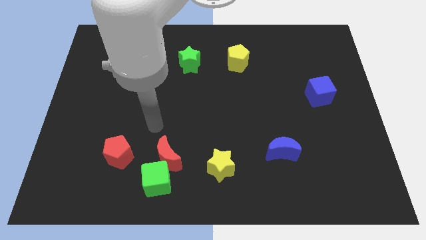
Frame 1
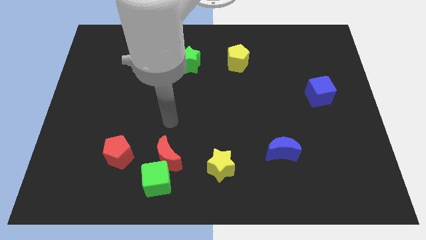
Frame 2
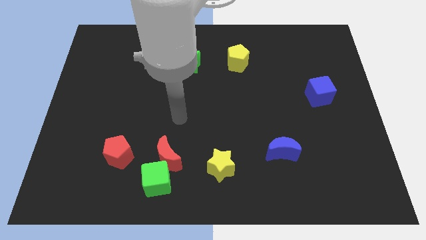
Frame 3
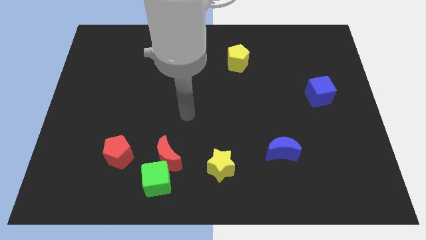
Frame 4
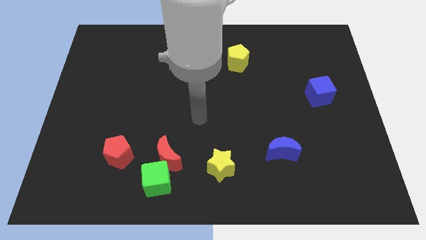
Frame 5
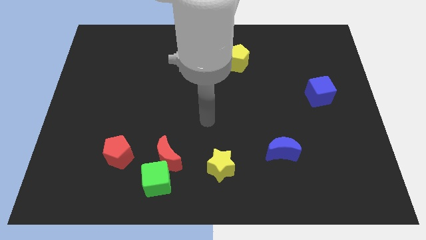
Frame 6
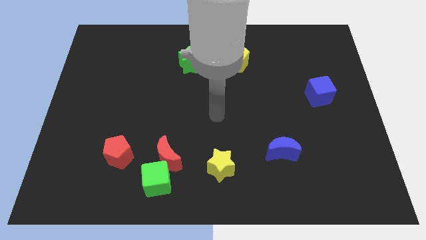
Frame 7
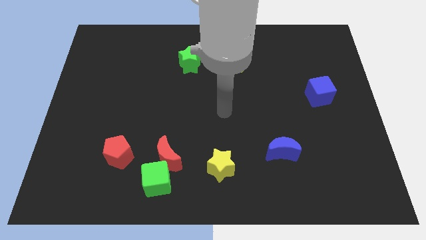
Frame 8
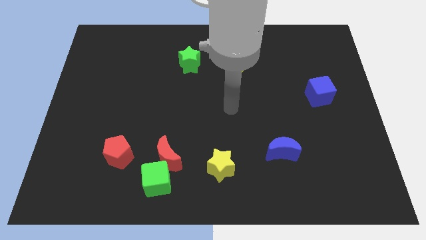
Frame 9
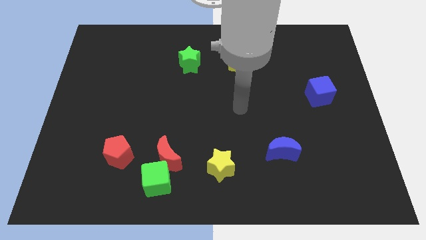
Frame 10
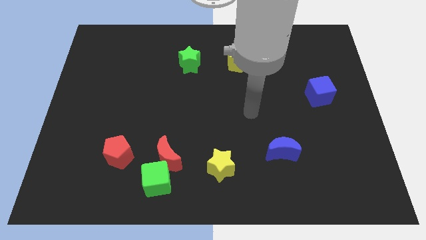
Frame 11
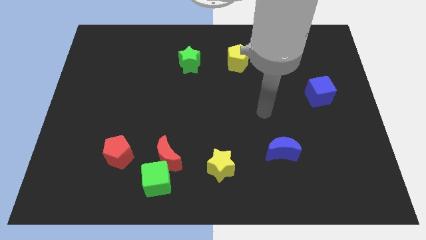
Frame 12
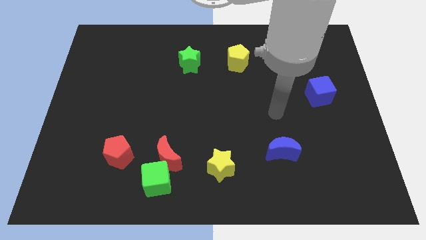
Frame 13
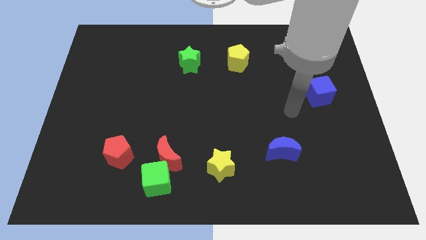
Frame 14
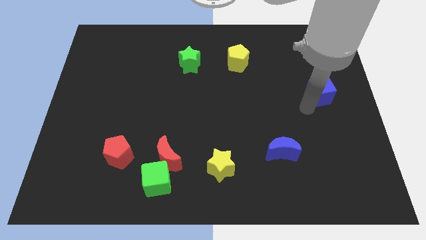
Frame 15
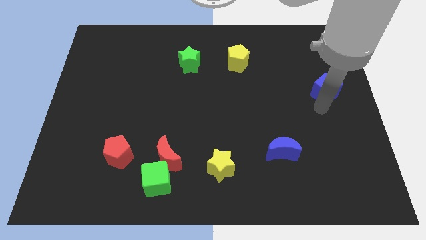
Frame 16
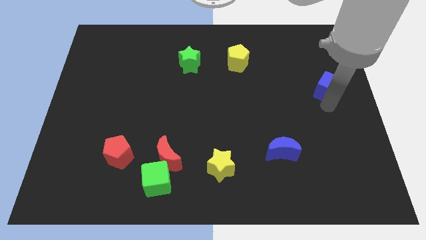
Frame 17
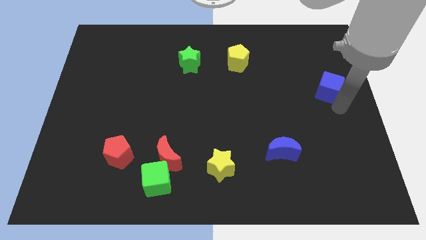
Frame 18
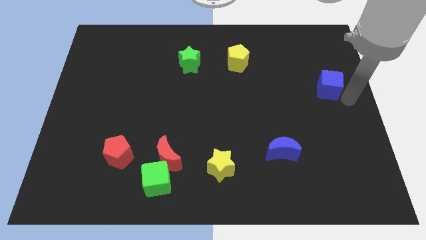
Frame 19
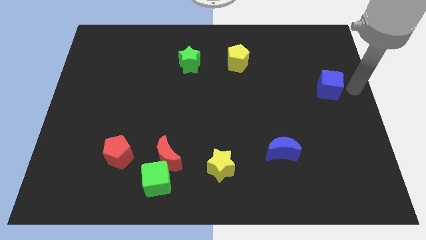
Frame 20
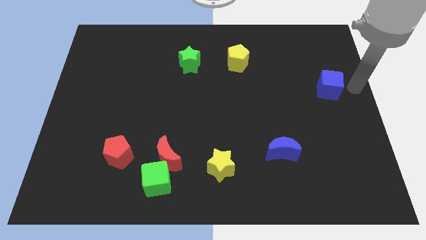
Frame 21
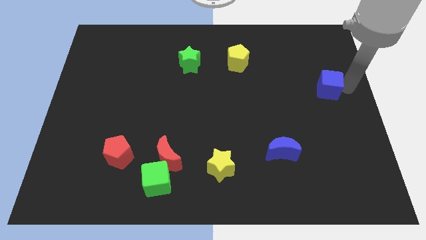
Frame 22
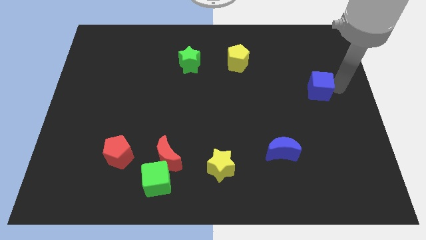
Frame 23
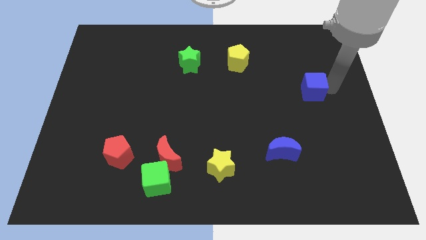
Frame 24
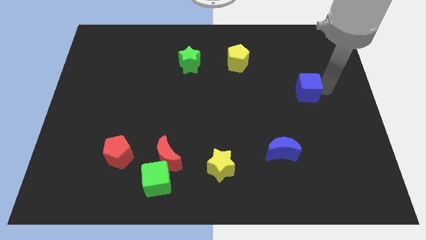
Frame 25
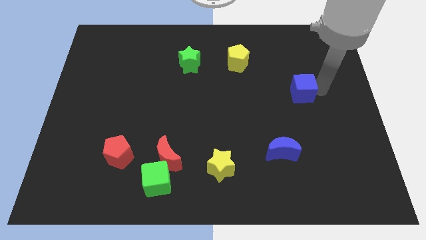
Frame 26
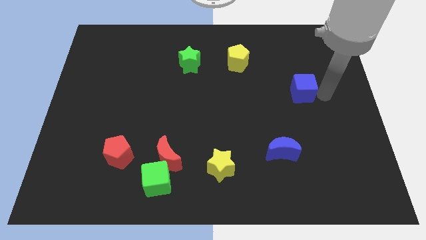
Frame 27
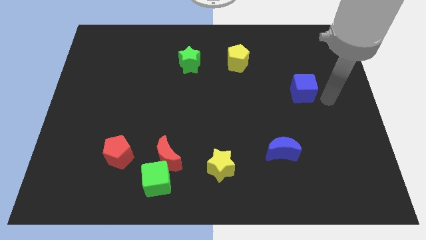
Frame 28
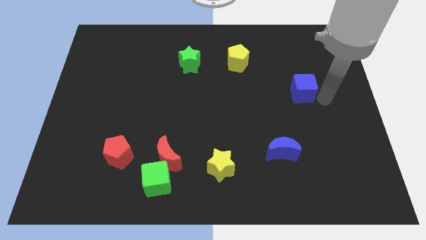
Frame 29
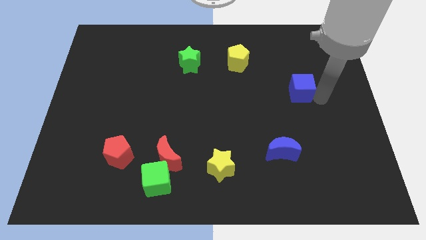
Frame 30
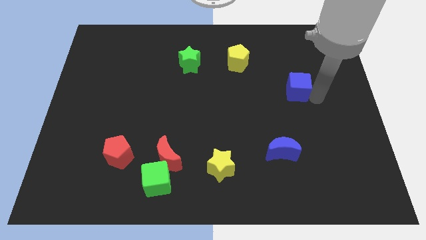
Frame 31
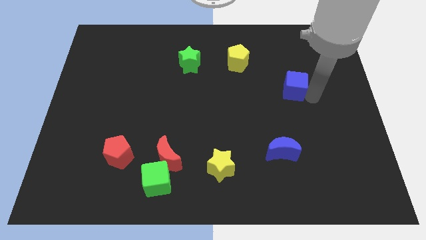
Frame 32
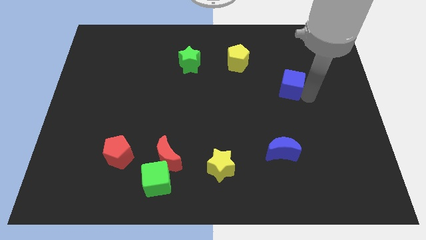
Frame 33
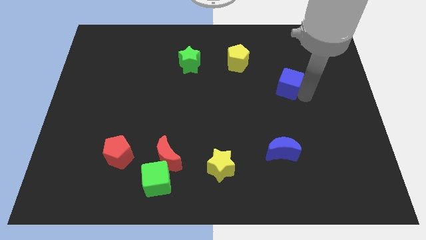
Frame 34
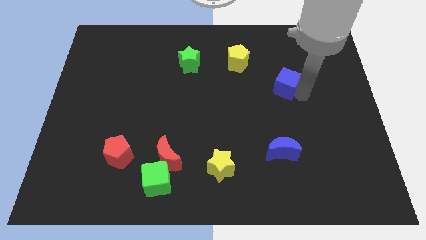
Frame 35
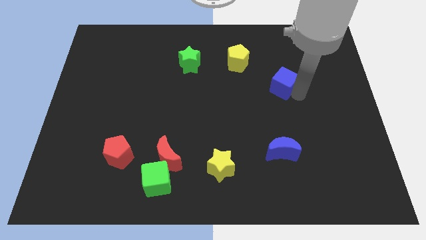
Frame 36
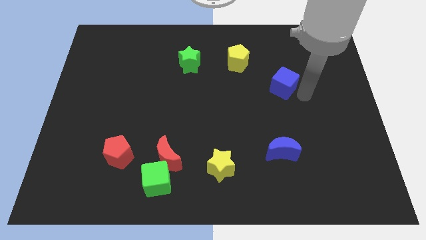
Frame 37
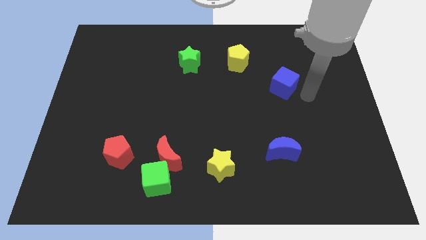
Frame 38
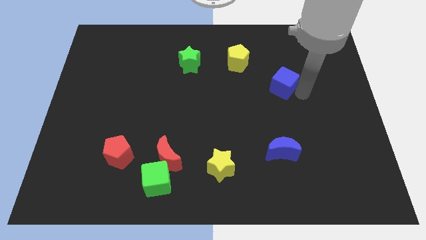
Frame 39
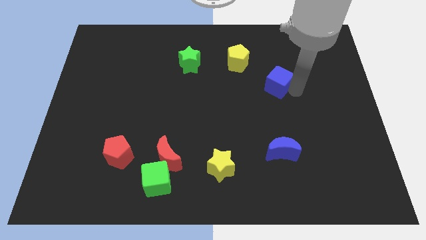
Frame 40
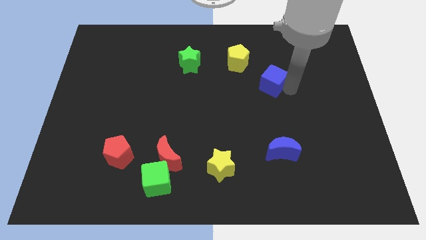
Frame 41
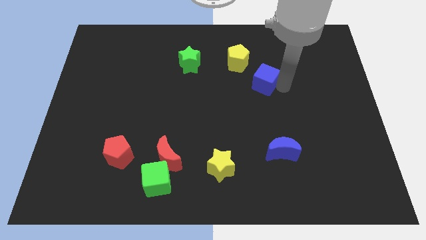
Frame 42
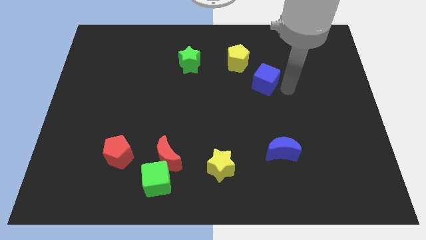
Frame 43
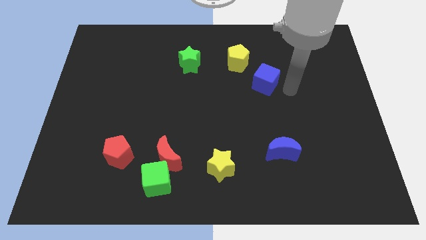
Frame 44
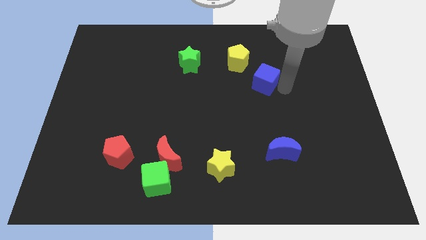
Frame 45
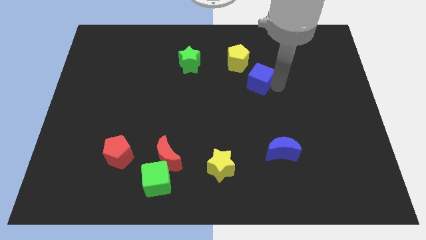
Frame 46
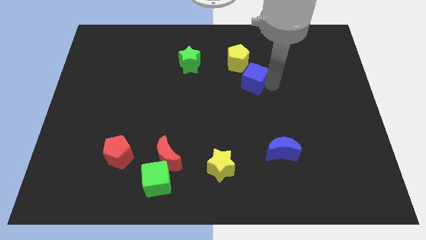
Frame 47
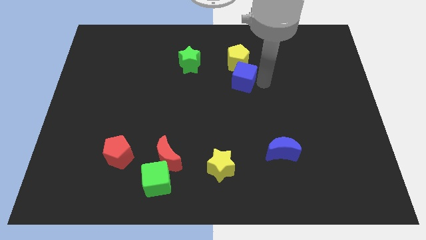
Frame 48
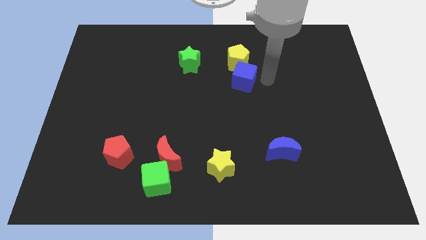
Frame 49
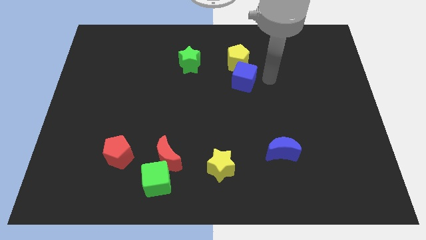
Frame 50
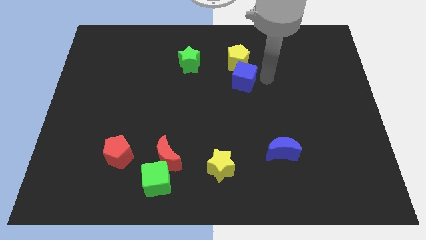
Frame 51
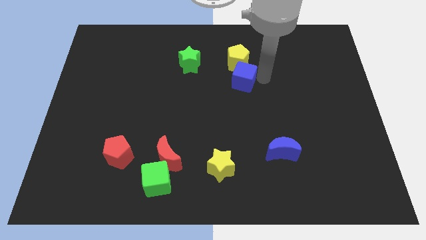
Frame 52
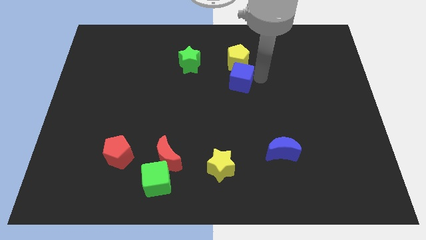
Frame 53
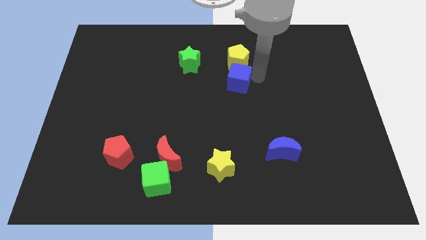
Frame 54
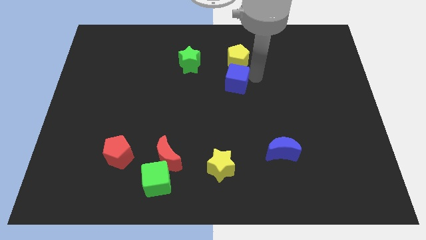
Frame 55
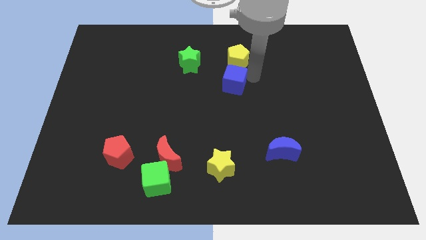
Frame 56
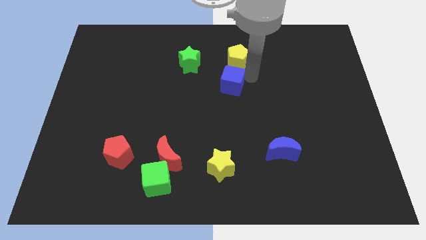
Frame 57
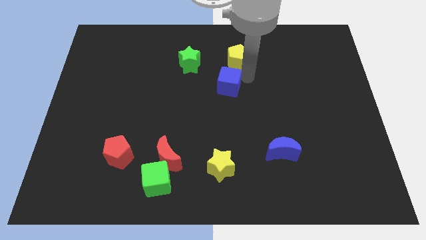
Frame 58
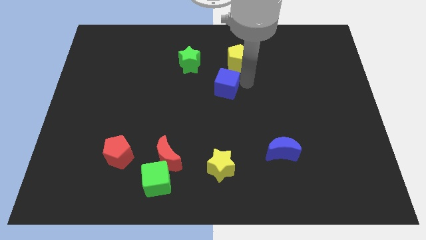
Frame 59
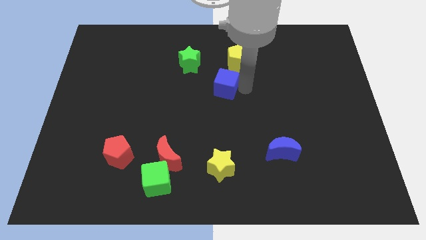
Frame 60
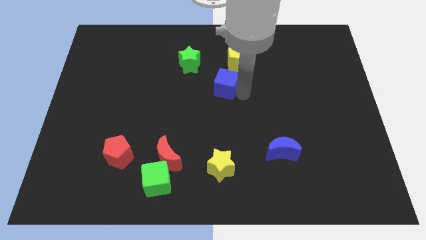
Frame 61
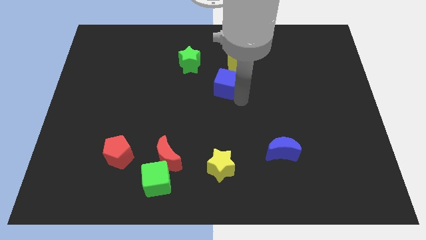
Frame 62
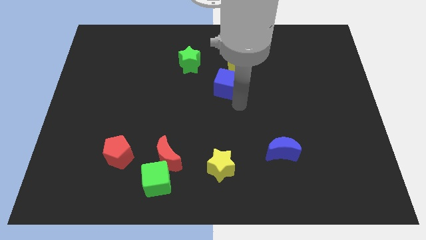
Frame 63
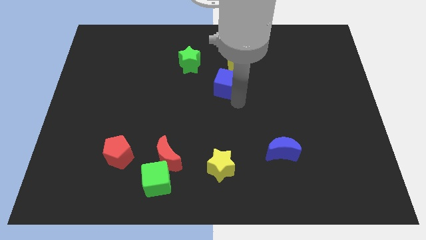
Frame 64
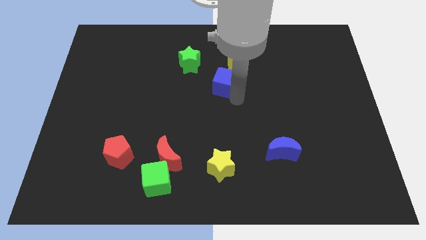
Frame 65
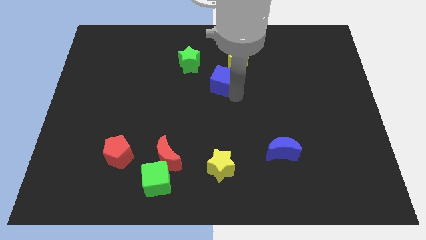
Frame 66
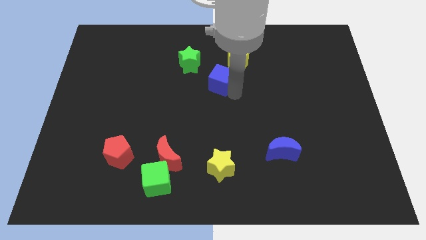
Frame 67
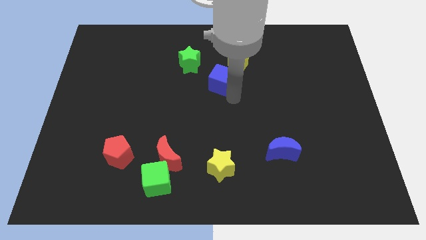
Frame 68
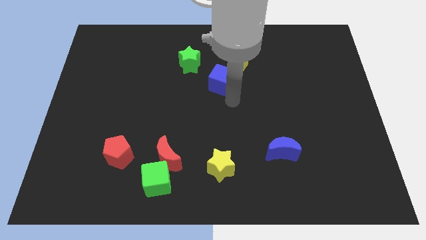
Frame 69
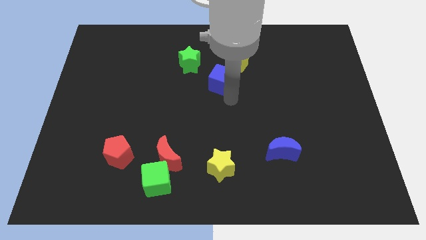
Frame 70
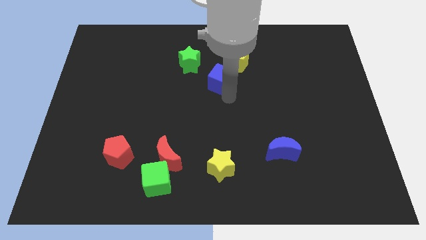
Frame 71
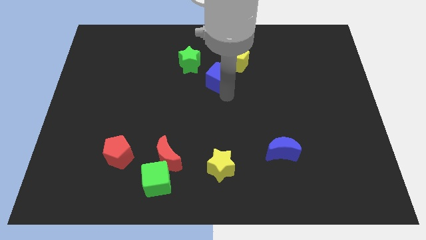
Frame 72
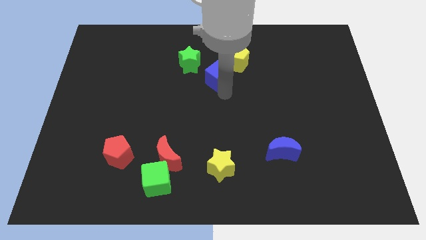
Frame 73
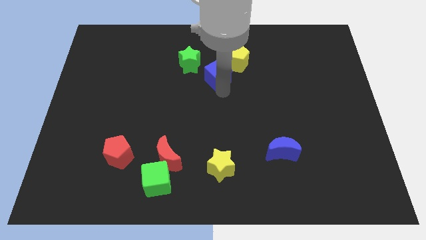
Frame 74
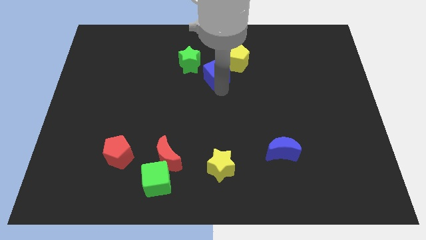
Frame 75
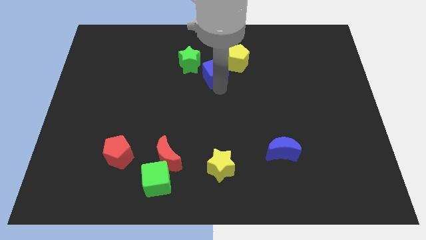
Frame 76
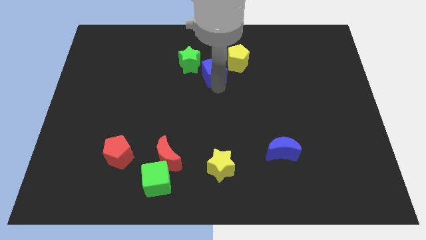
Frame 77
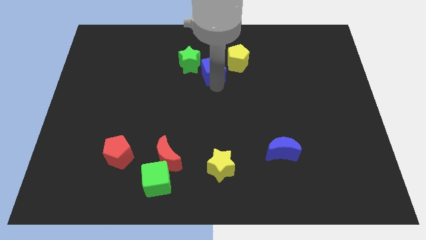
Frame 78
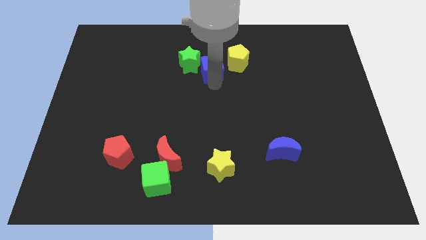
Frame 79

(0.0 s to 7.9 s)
push the blue cube to the green star
